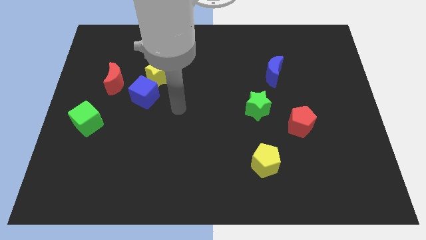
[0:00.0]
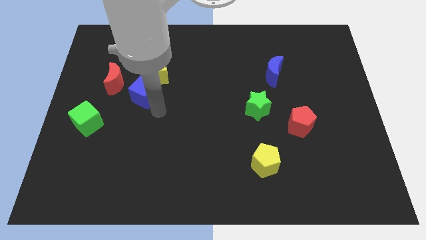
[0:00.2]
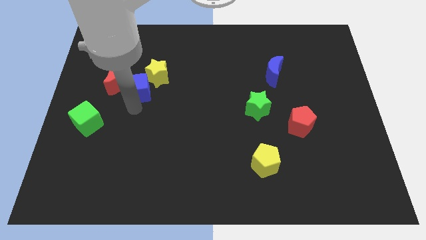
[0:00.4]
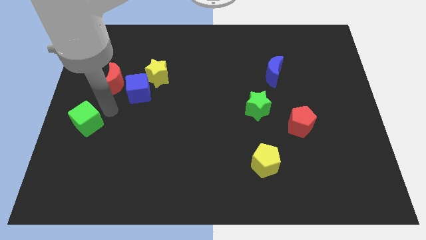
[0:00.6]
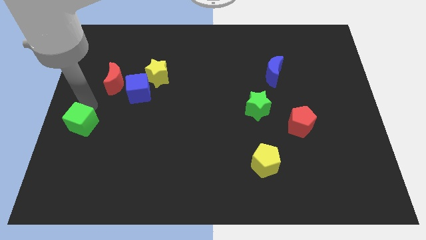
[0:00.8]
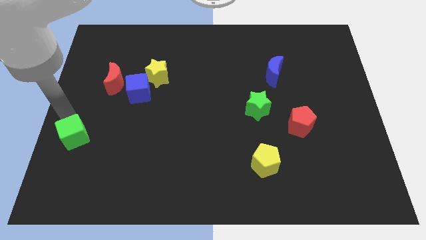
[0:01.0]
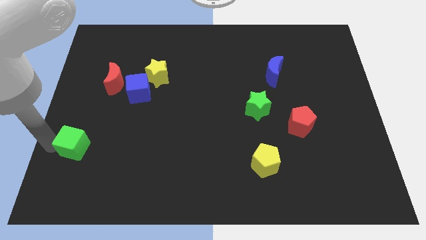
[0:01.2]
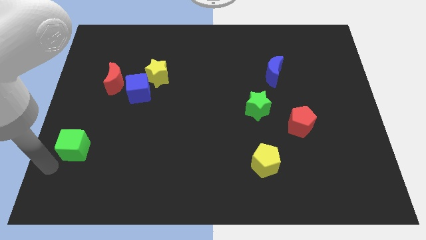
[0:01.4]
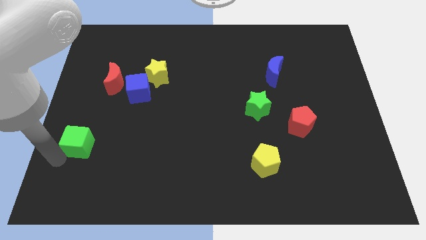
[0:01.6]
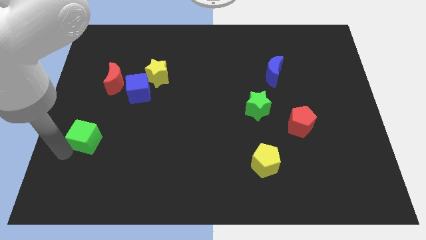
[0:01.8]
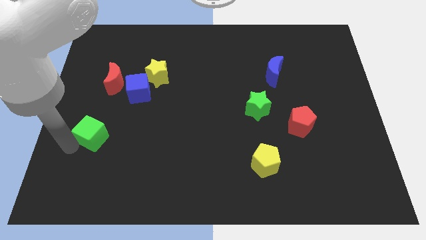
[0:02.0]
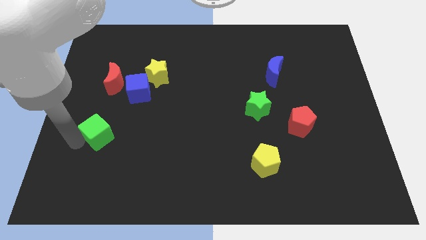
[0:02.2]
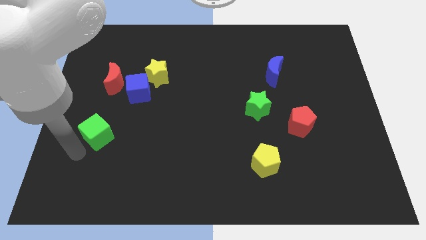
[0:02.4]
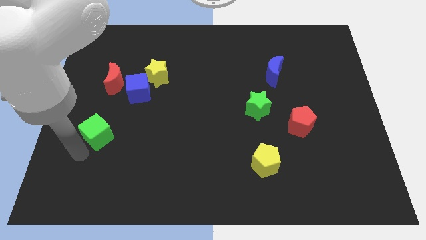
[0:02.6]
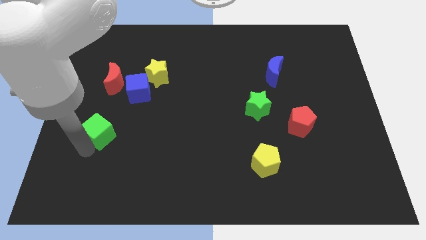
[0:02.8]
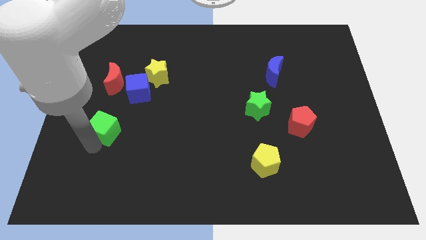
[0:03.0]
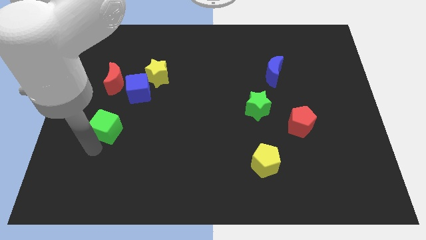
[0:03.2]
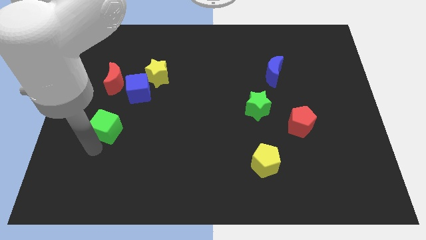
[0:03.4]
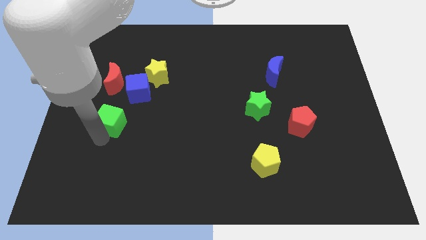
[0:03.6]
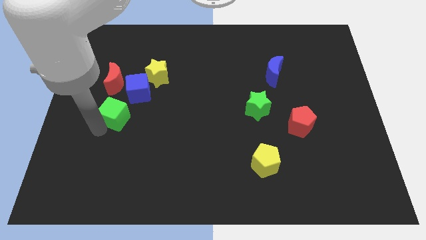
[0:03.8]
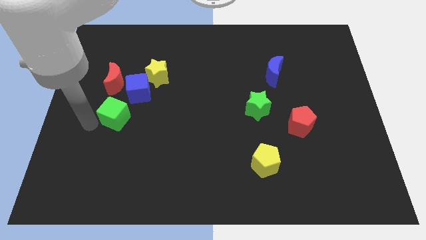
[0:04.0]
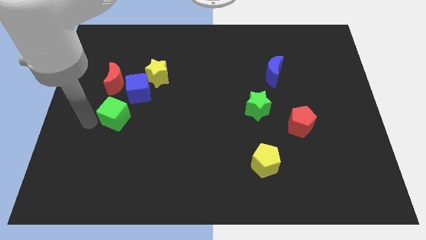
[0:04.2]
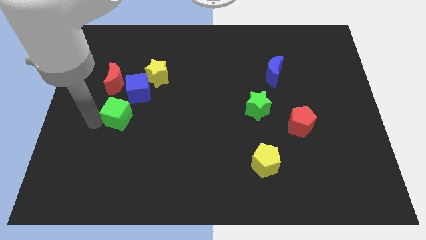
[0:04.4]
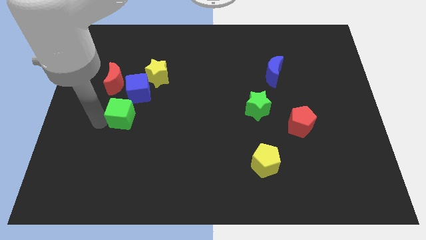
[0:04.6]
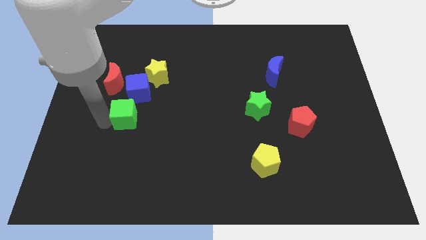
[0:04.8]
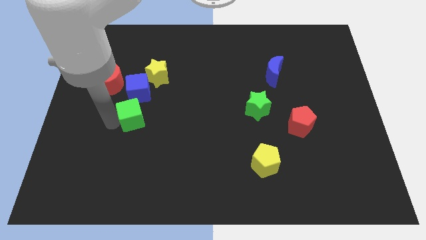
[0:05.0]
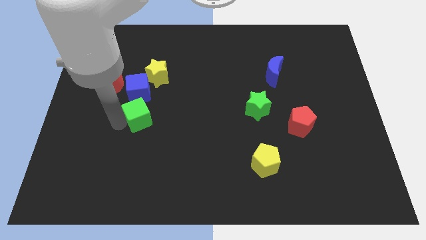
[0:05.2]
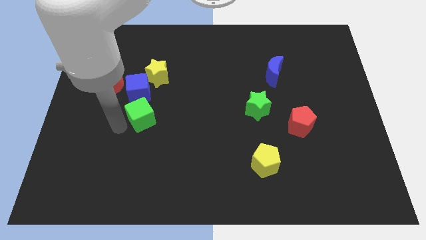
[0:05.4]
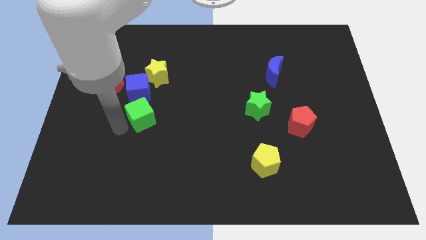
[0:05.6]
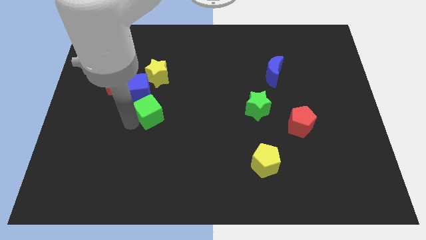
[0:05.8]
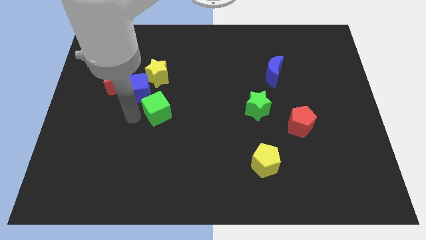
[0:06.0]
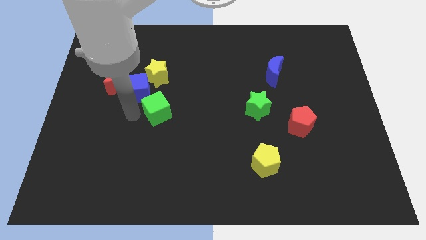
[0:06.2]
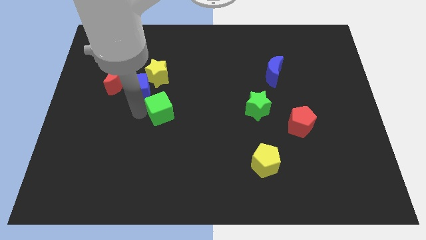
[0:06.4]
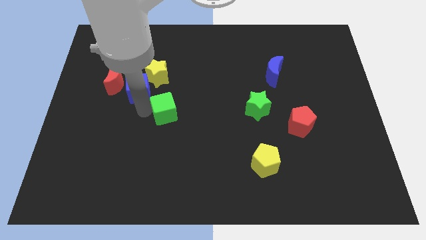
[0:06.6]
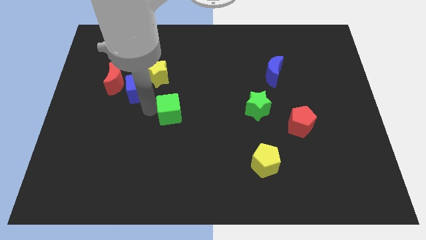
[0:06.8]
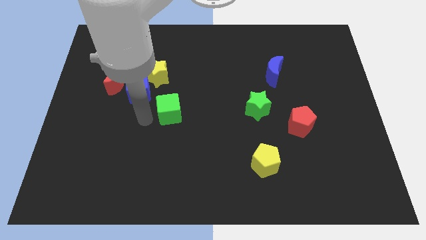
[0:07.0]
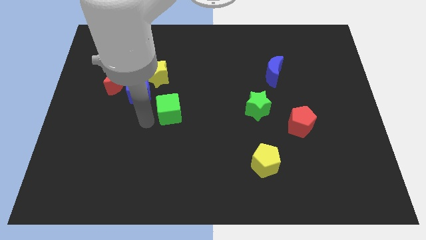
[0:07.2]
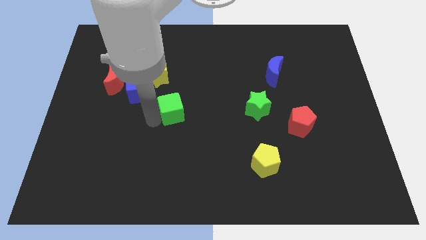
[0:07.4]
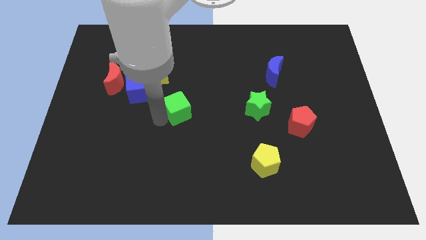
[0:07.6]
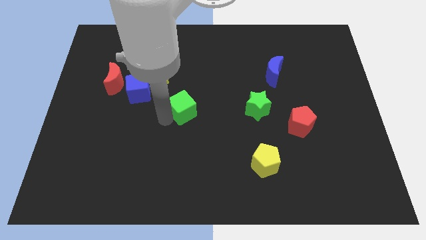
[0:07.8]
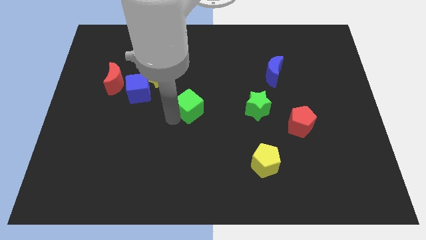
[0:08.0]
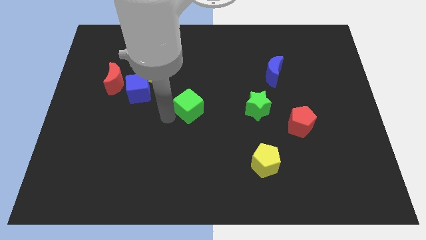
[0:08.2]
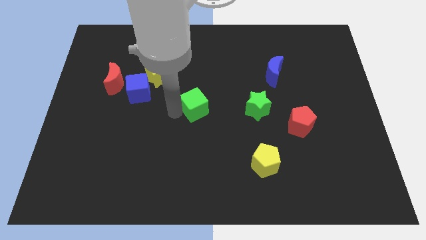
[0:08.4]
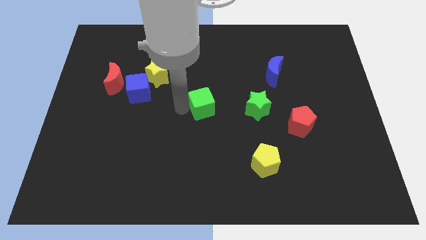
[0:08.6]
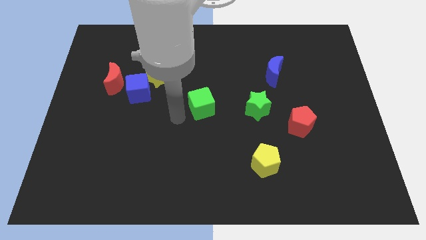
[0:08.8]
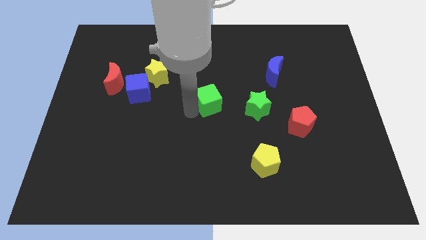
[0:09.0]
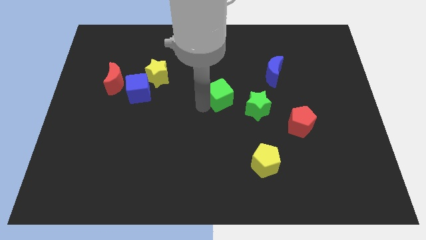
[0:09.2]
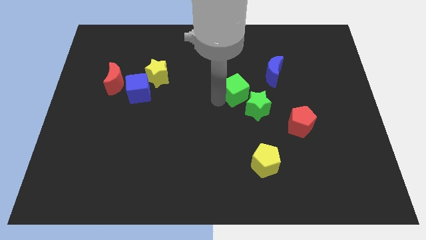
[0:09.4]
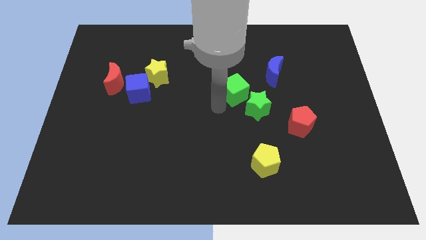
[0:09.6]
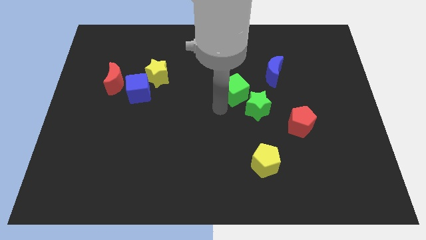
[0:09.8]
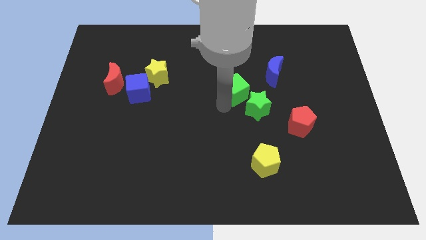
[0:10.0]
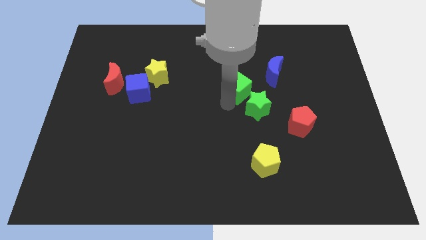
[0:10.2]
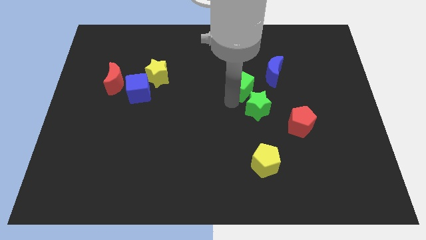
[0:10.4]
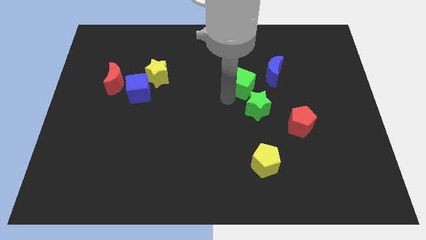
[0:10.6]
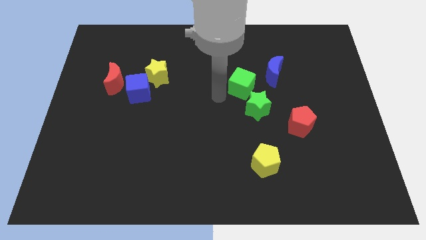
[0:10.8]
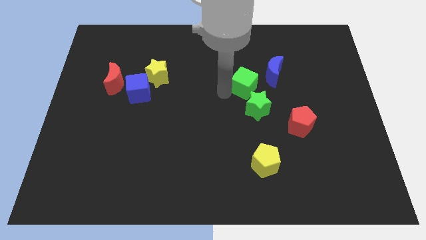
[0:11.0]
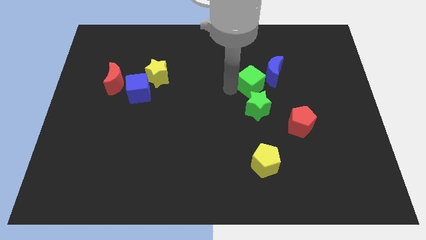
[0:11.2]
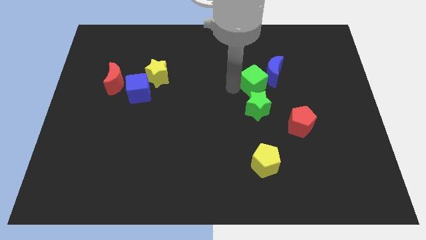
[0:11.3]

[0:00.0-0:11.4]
push the green cube next to the blue moon
